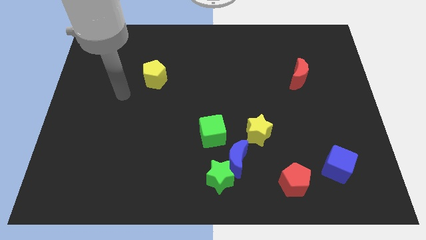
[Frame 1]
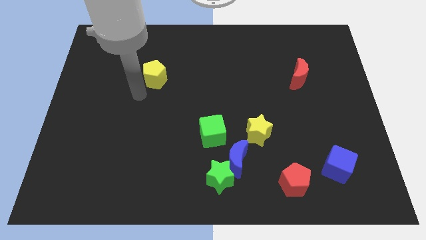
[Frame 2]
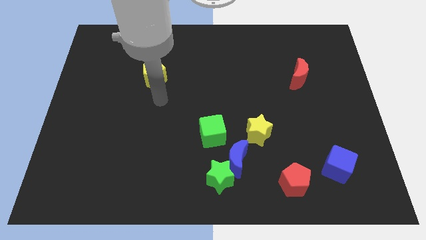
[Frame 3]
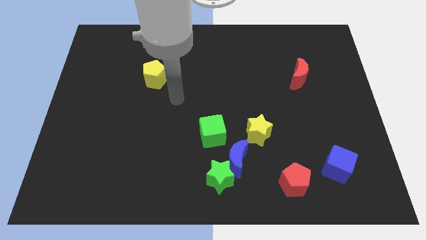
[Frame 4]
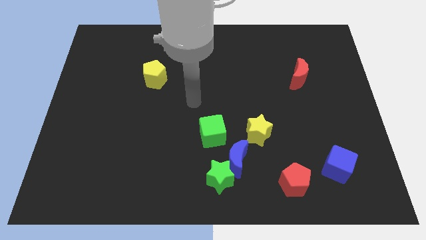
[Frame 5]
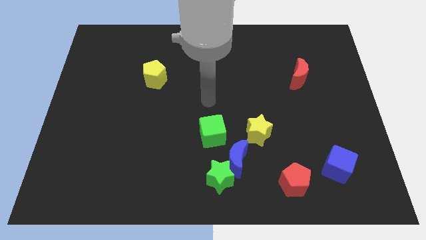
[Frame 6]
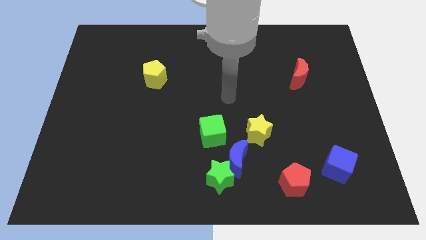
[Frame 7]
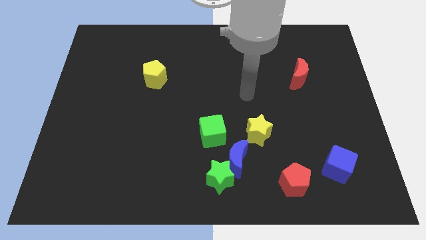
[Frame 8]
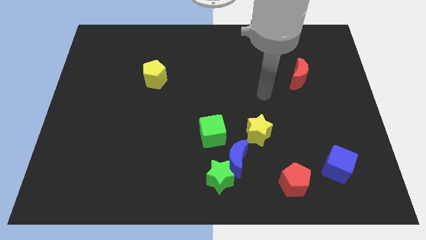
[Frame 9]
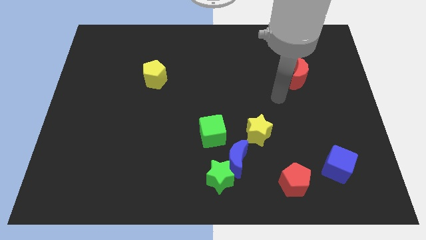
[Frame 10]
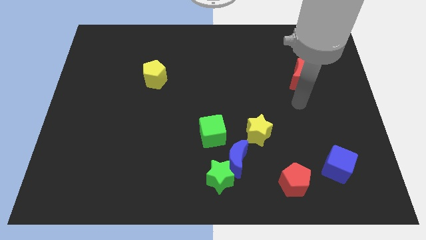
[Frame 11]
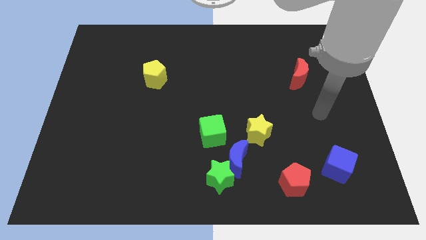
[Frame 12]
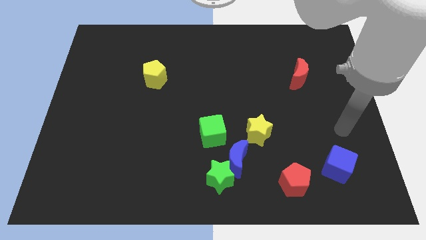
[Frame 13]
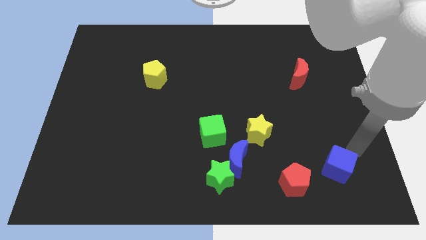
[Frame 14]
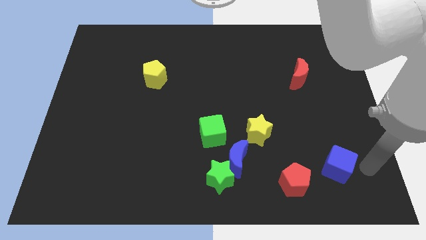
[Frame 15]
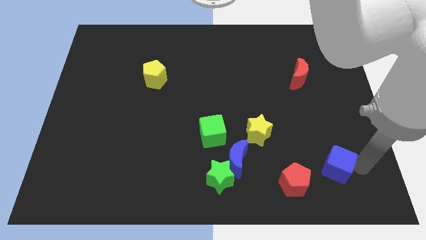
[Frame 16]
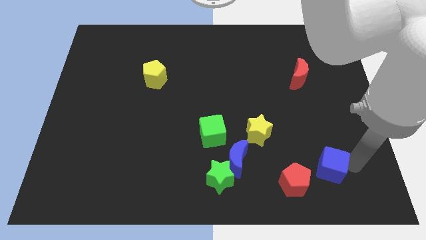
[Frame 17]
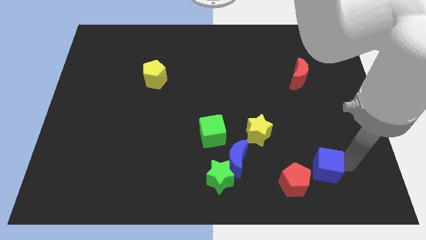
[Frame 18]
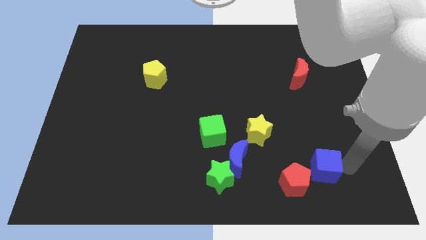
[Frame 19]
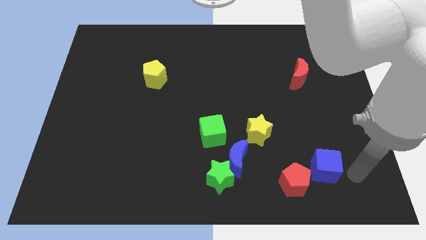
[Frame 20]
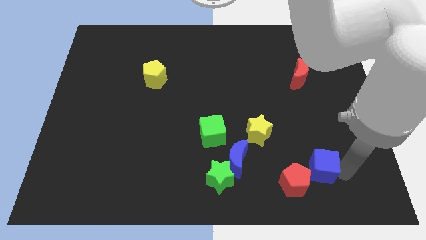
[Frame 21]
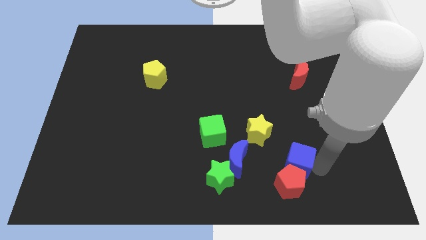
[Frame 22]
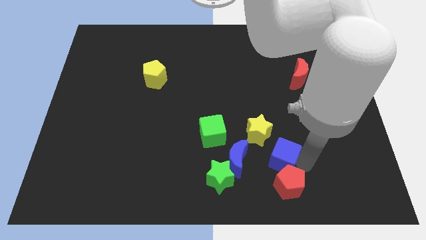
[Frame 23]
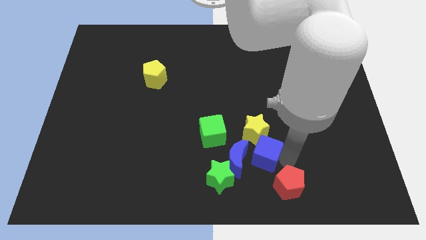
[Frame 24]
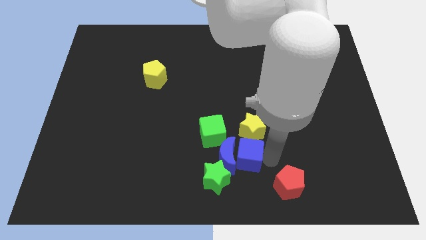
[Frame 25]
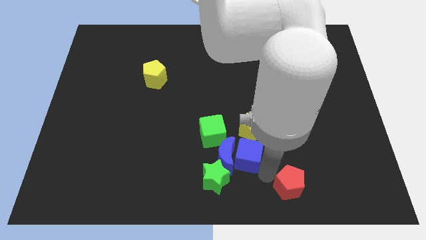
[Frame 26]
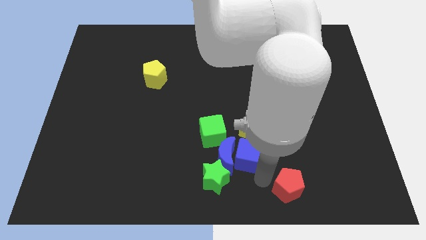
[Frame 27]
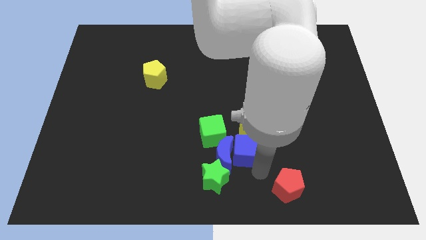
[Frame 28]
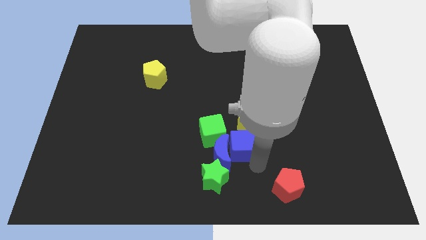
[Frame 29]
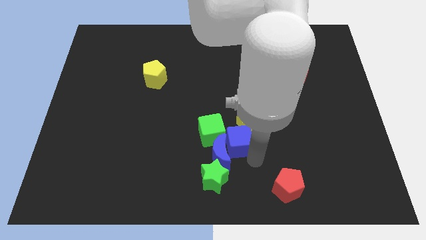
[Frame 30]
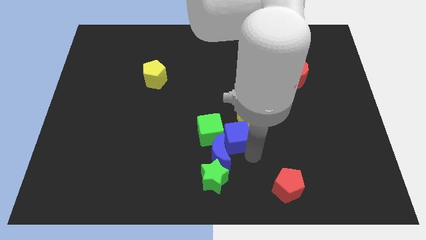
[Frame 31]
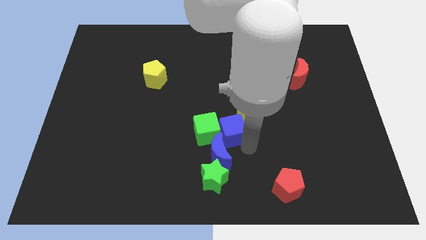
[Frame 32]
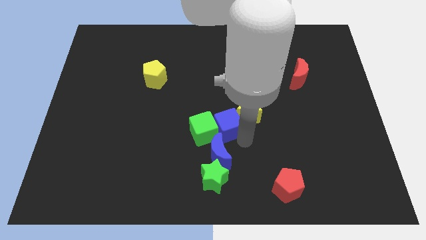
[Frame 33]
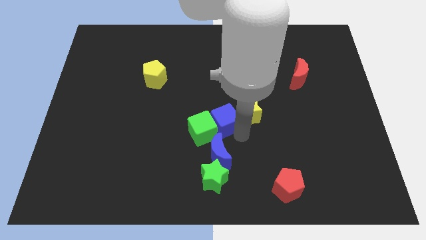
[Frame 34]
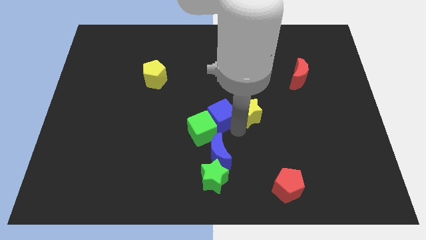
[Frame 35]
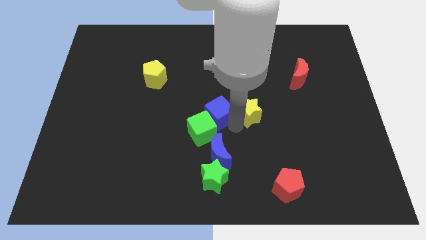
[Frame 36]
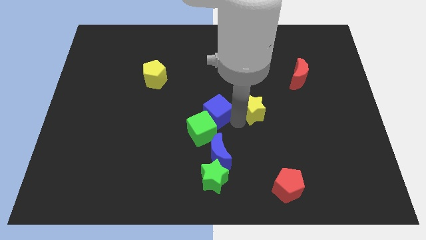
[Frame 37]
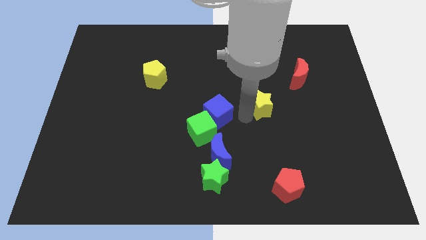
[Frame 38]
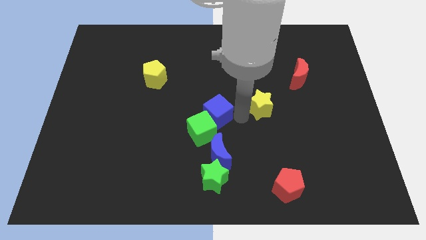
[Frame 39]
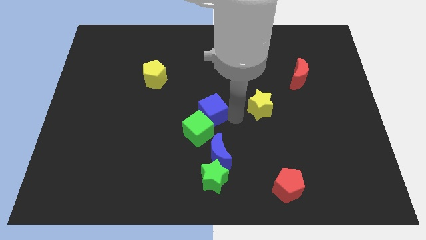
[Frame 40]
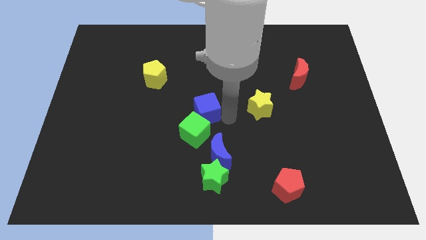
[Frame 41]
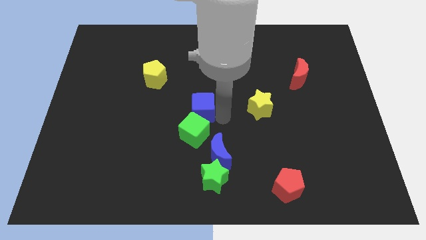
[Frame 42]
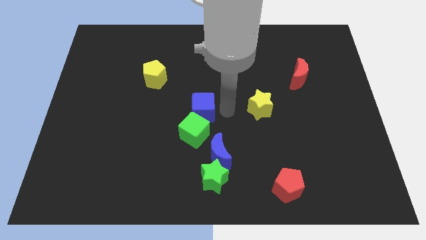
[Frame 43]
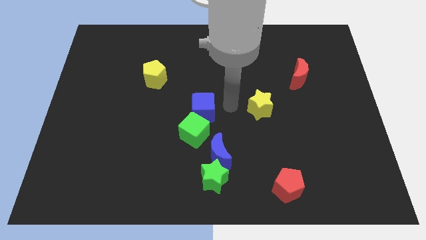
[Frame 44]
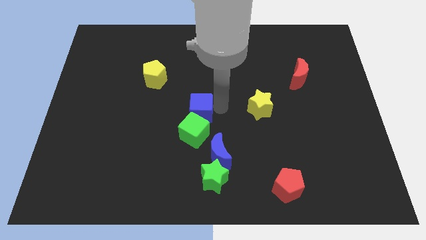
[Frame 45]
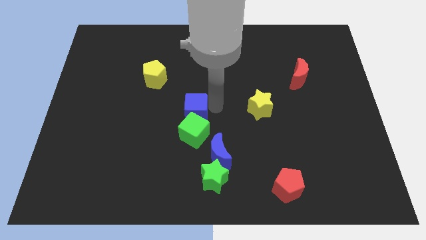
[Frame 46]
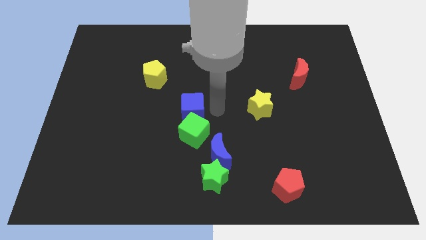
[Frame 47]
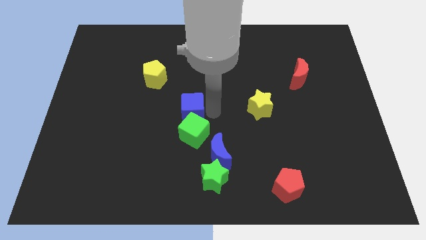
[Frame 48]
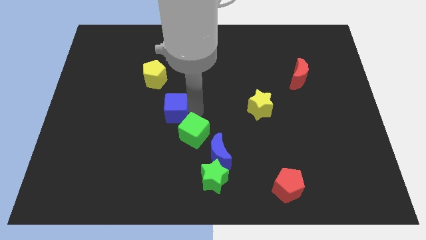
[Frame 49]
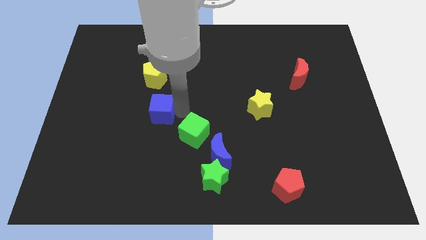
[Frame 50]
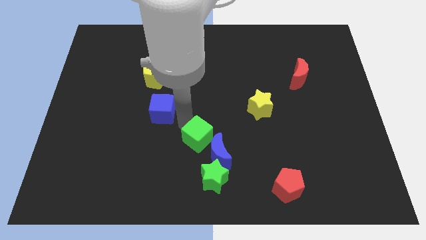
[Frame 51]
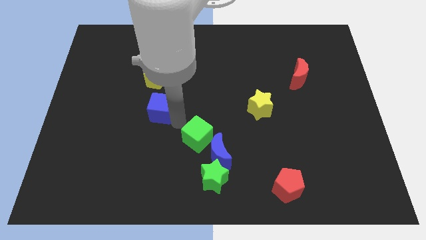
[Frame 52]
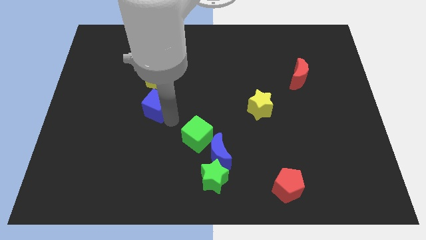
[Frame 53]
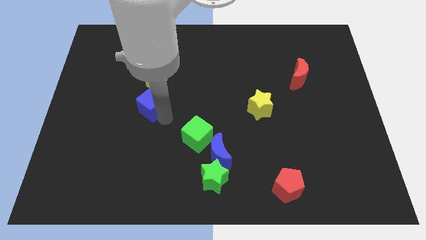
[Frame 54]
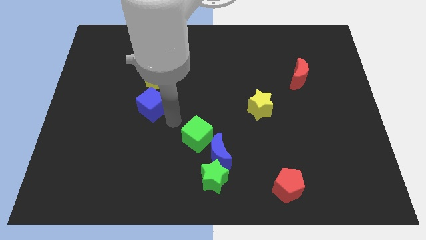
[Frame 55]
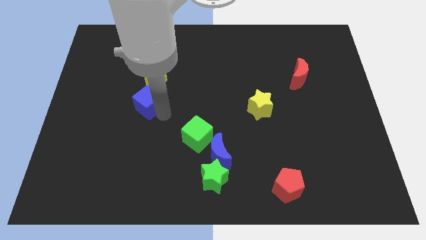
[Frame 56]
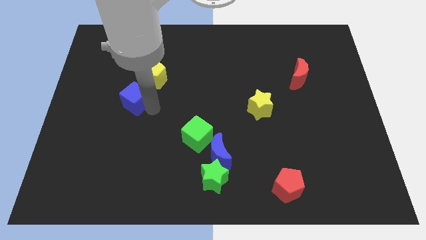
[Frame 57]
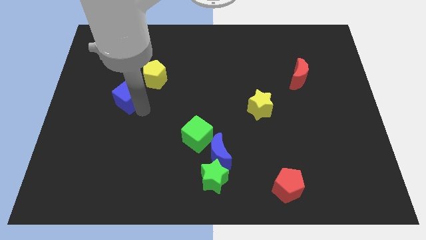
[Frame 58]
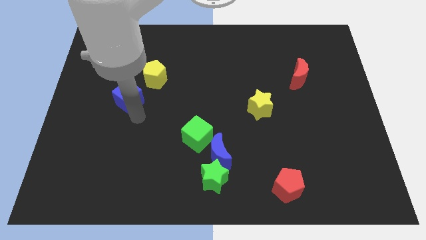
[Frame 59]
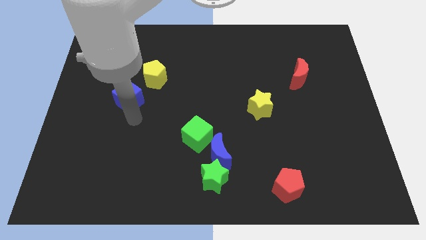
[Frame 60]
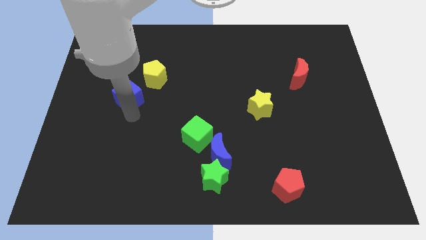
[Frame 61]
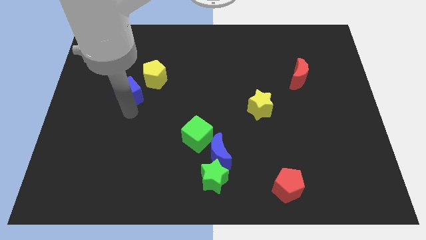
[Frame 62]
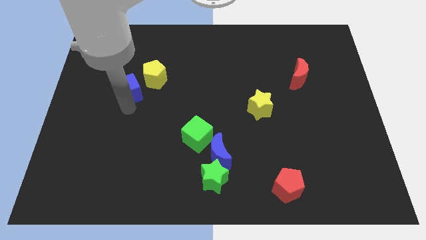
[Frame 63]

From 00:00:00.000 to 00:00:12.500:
put the blue cube just left of the yellow pentagon
